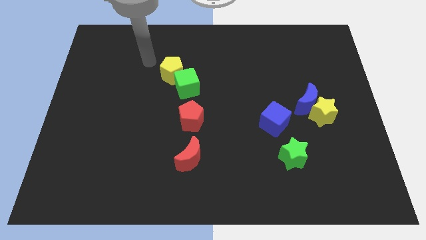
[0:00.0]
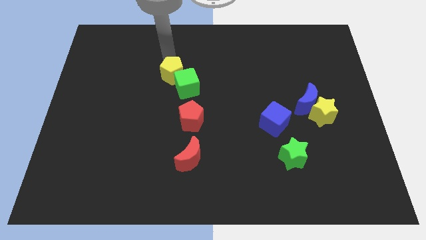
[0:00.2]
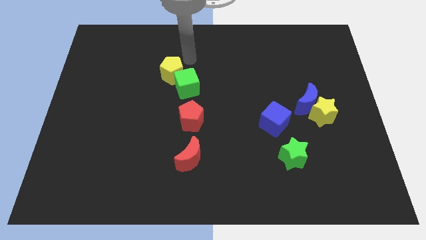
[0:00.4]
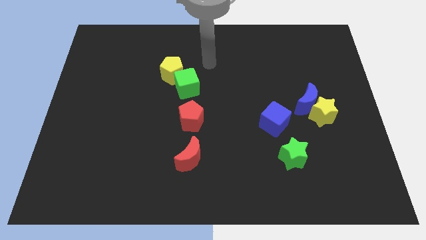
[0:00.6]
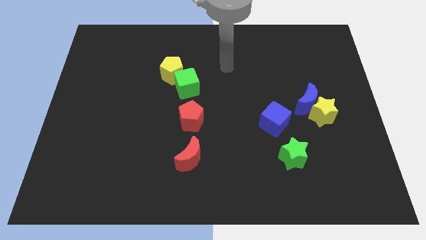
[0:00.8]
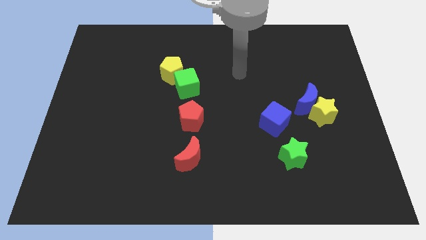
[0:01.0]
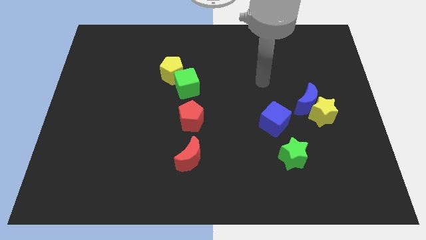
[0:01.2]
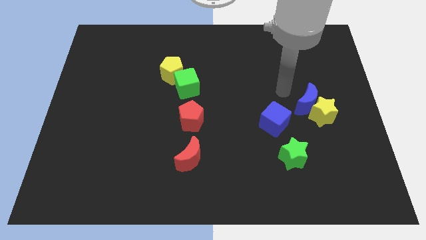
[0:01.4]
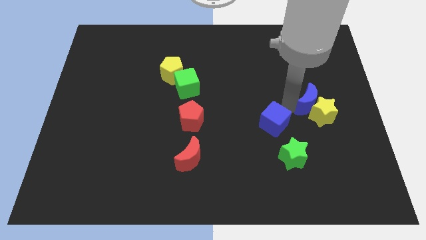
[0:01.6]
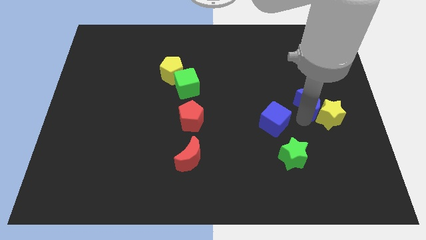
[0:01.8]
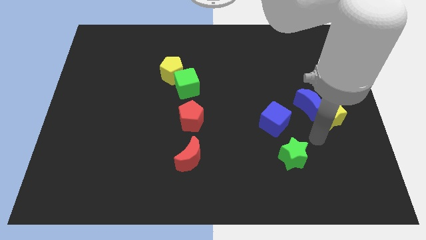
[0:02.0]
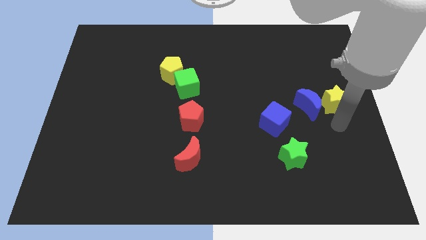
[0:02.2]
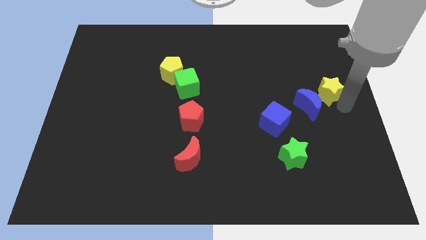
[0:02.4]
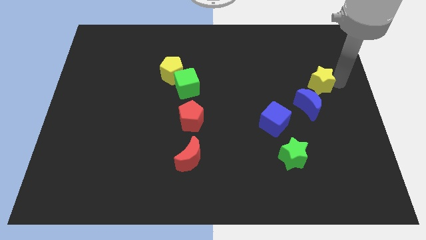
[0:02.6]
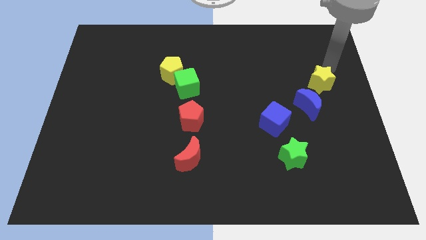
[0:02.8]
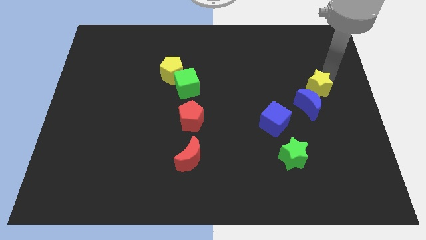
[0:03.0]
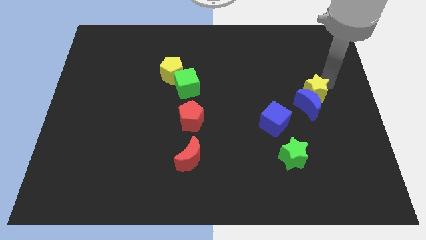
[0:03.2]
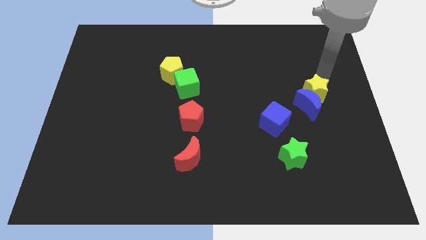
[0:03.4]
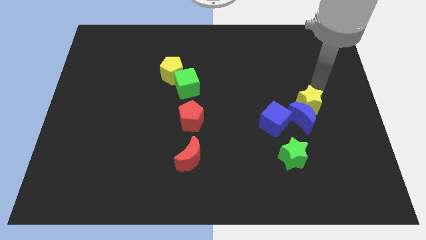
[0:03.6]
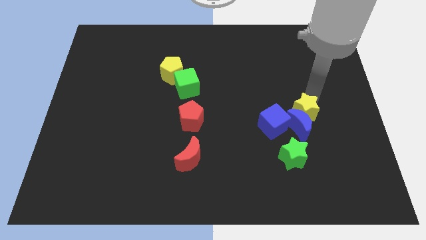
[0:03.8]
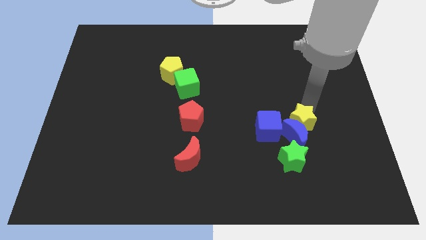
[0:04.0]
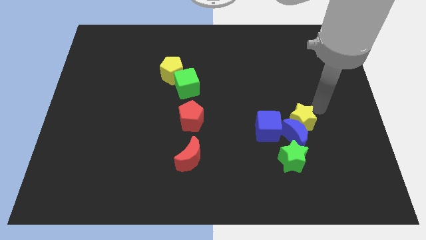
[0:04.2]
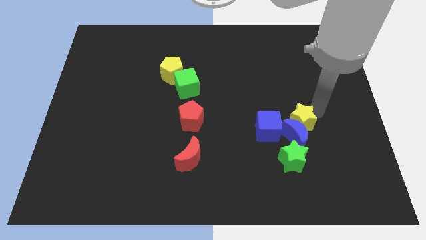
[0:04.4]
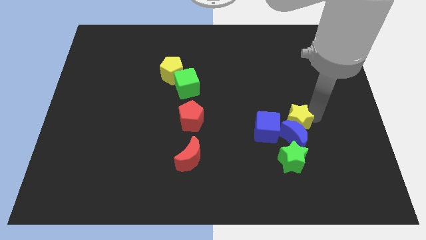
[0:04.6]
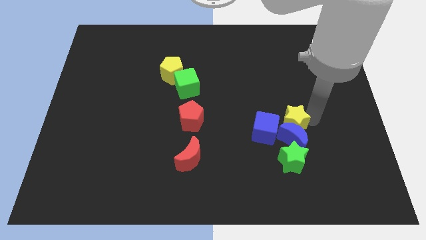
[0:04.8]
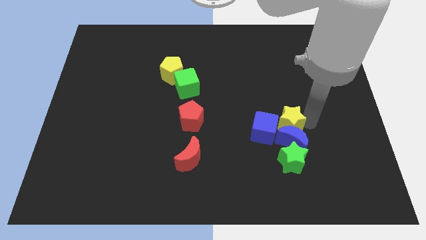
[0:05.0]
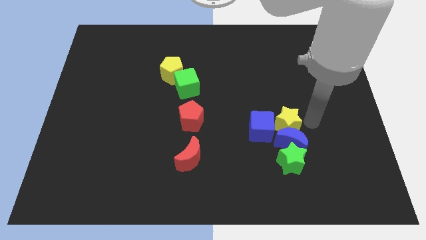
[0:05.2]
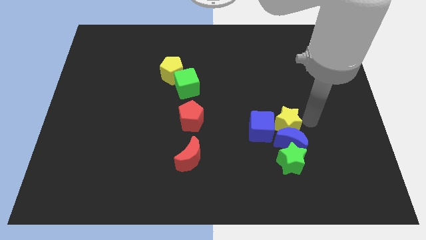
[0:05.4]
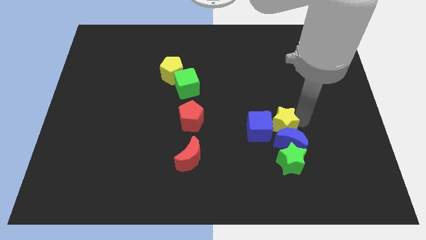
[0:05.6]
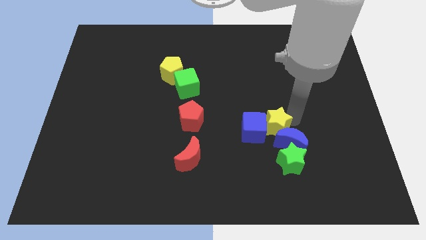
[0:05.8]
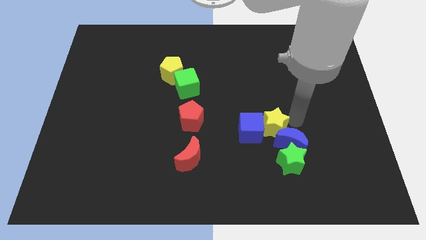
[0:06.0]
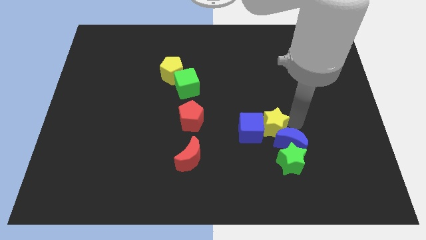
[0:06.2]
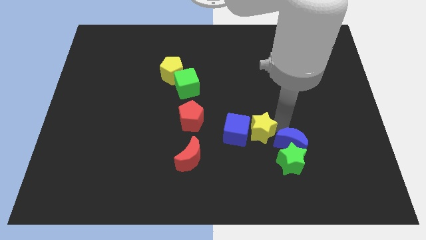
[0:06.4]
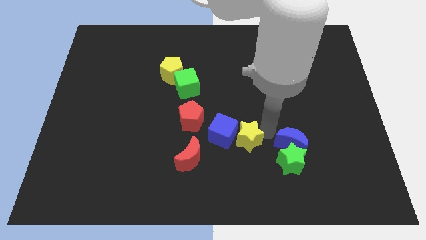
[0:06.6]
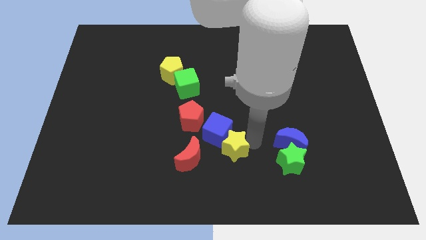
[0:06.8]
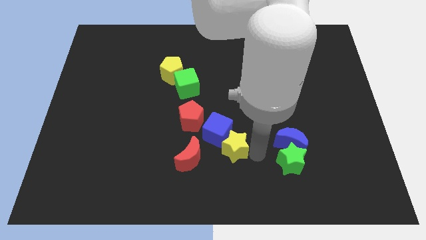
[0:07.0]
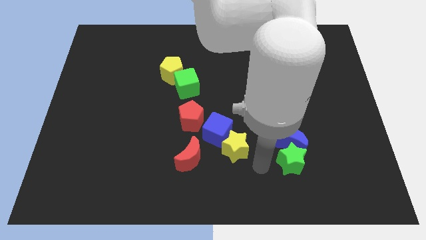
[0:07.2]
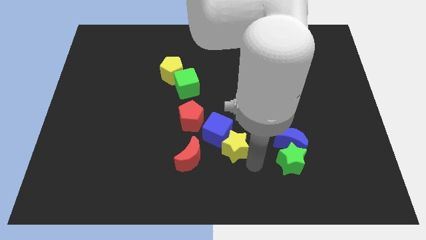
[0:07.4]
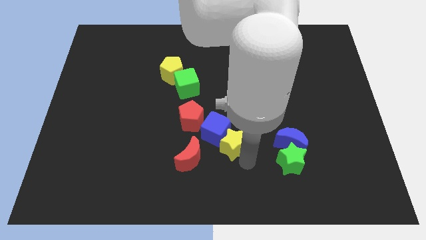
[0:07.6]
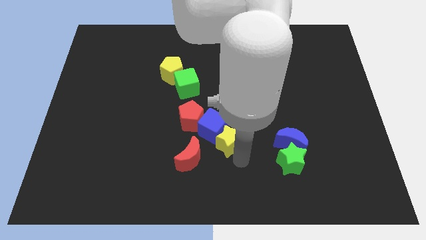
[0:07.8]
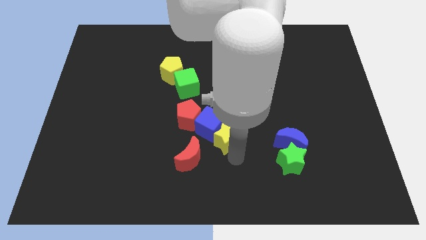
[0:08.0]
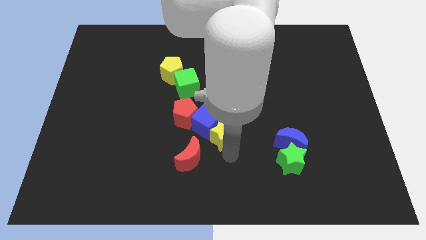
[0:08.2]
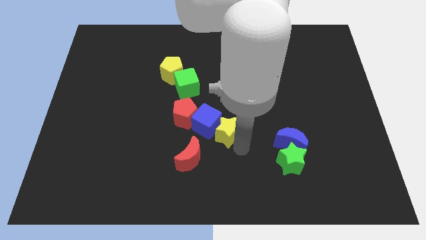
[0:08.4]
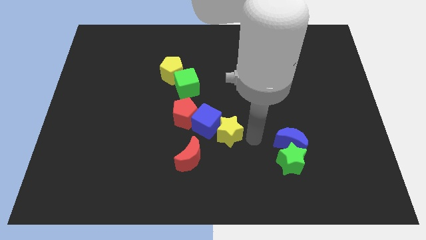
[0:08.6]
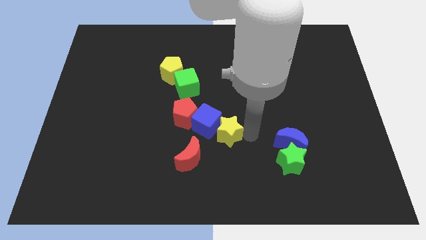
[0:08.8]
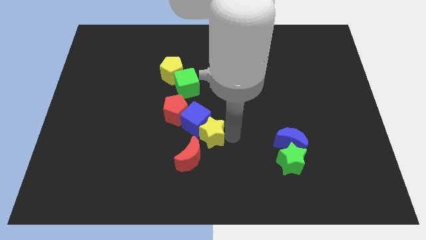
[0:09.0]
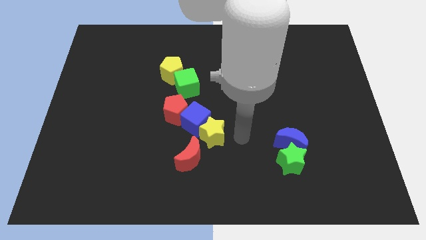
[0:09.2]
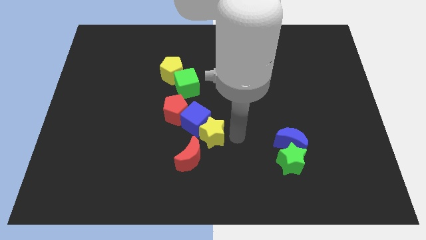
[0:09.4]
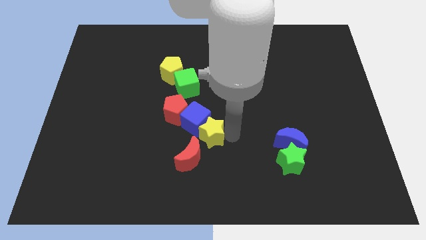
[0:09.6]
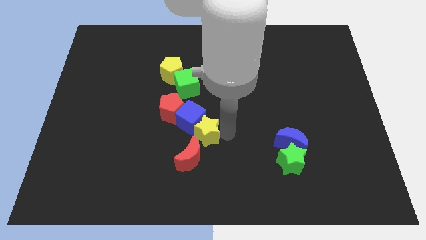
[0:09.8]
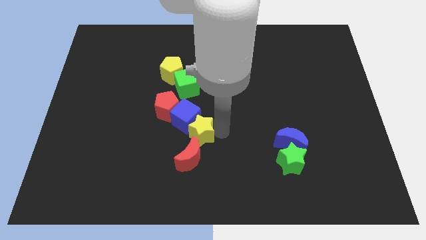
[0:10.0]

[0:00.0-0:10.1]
slide the yellow star to the bottom side of the green cube

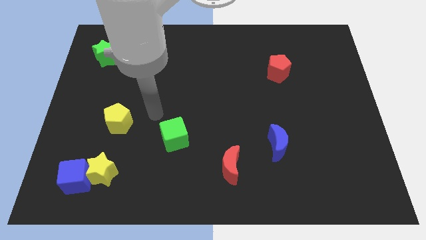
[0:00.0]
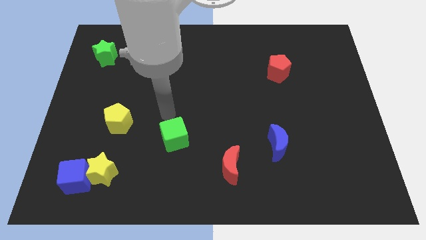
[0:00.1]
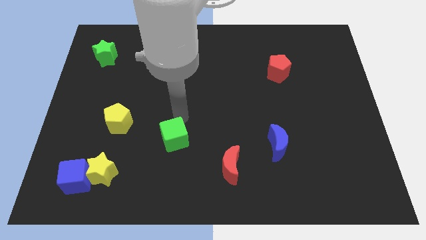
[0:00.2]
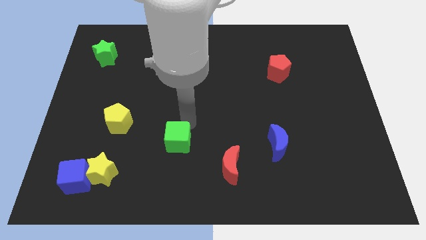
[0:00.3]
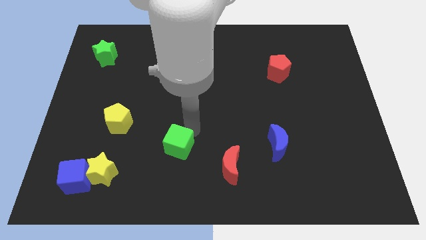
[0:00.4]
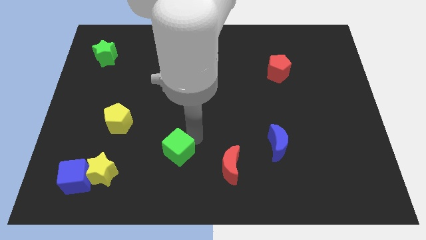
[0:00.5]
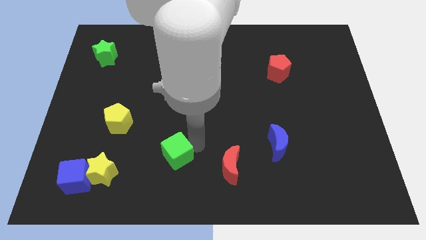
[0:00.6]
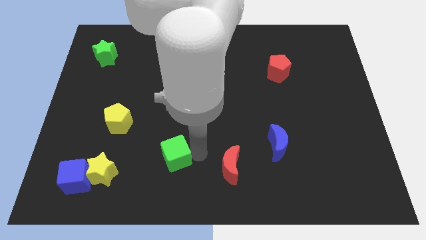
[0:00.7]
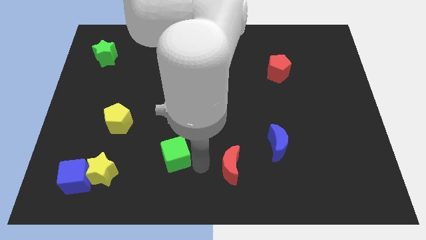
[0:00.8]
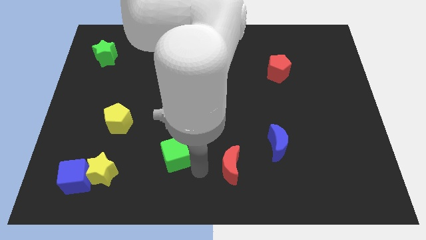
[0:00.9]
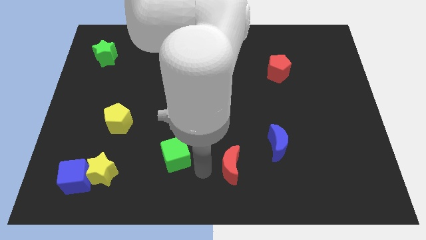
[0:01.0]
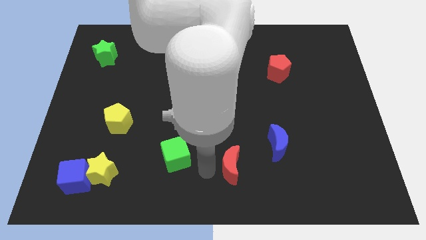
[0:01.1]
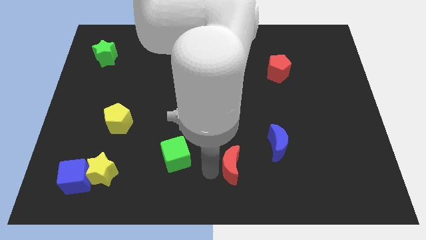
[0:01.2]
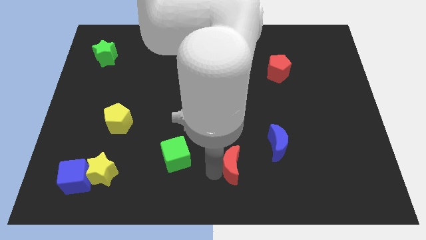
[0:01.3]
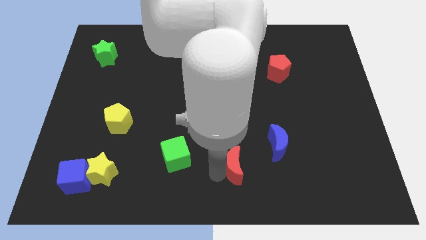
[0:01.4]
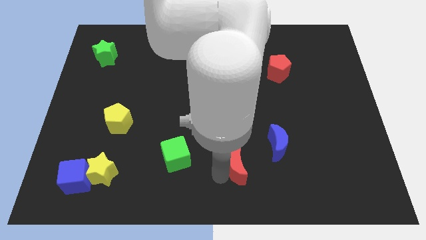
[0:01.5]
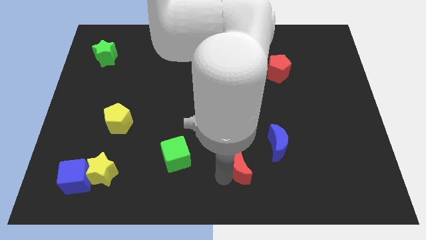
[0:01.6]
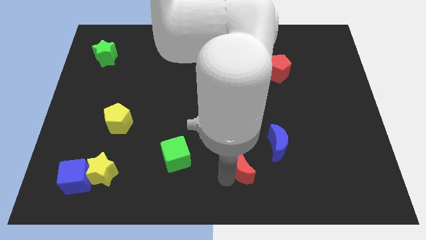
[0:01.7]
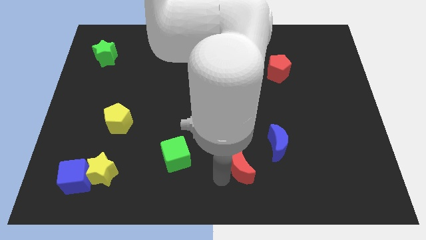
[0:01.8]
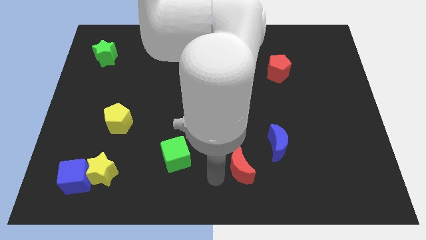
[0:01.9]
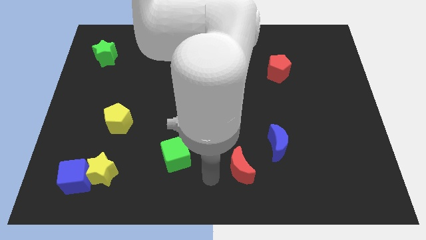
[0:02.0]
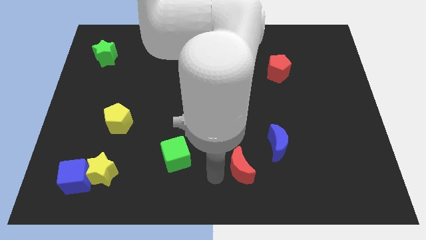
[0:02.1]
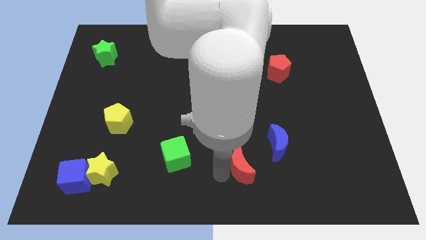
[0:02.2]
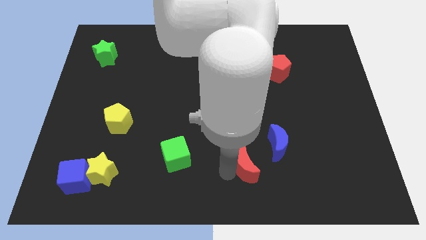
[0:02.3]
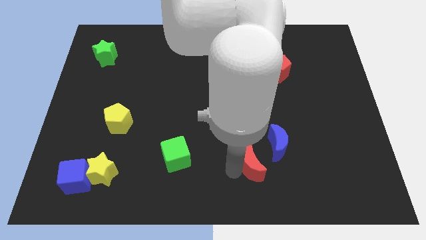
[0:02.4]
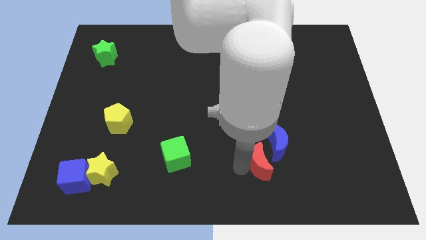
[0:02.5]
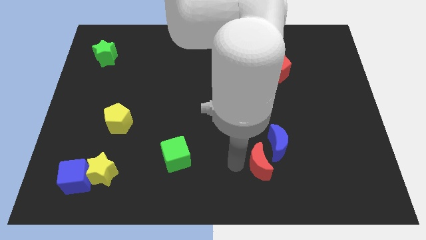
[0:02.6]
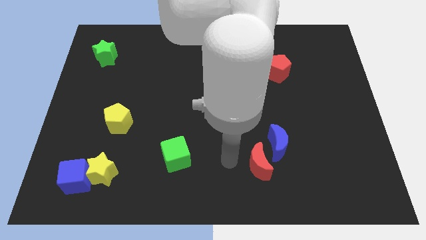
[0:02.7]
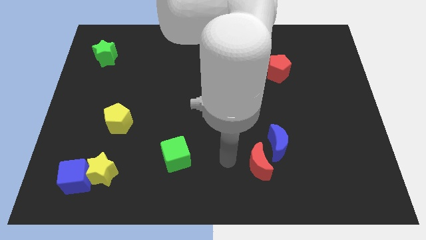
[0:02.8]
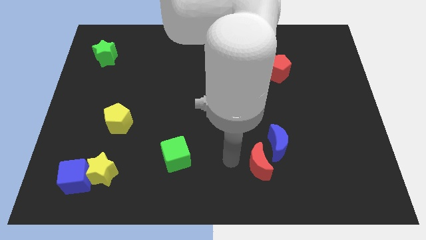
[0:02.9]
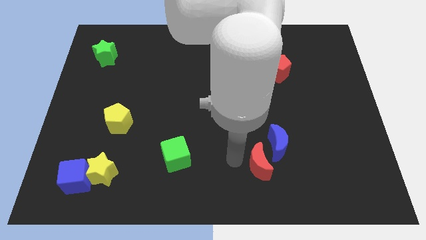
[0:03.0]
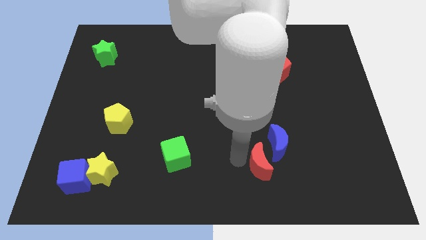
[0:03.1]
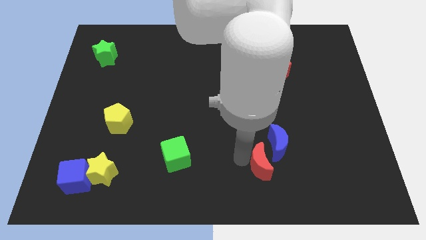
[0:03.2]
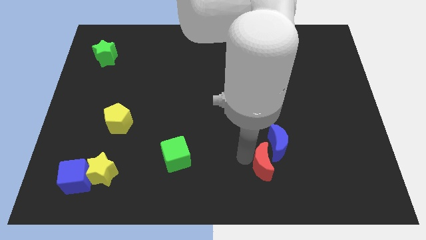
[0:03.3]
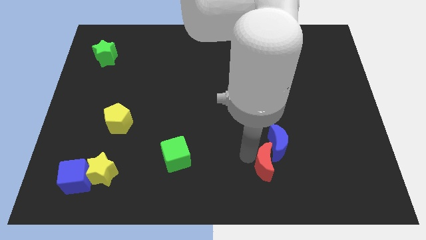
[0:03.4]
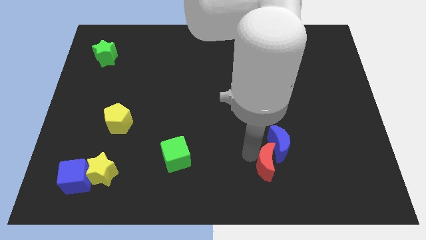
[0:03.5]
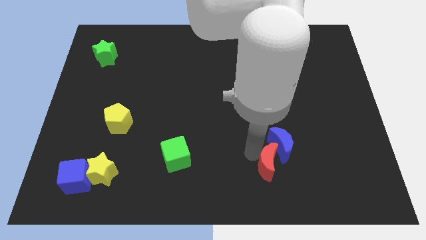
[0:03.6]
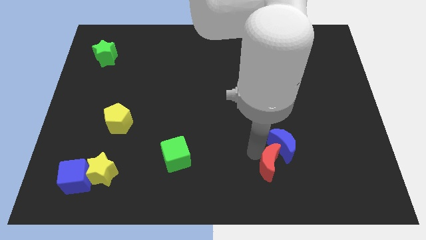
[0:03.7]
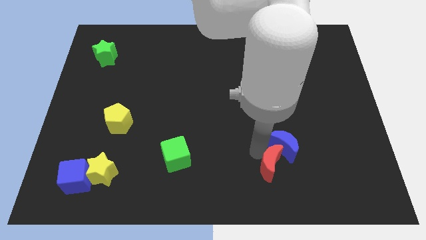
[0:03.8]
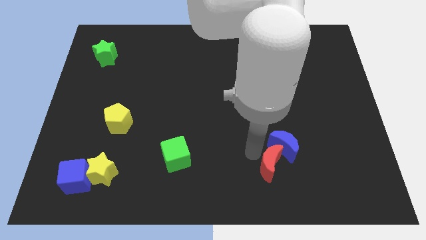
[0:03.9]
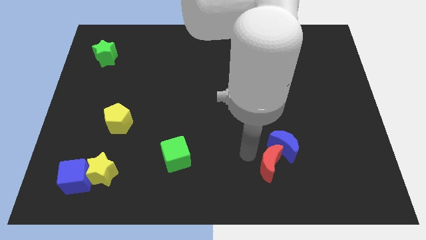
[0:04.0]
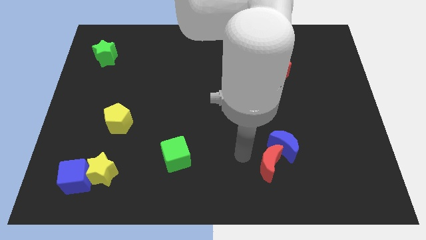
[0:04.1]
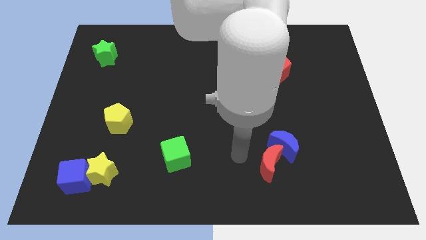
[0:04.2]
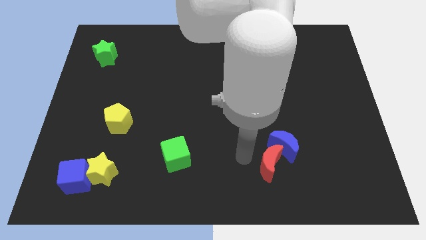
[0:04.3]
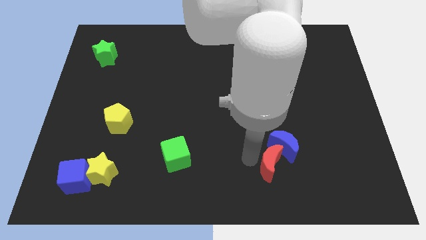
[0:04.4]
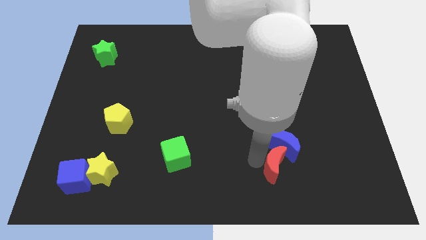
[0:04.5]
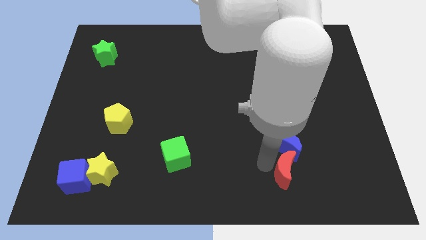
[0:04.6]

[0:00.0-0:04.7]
move the red moon to the bottom right of the blue moon
